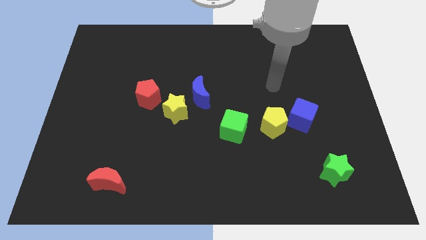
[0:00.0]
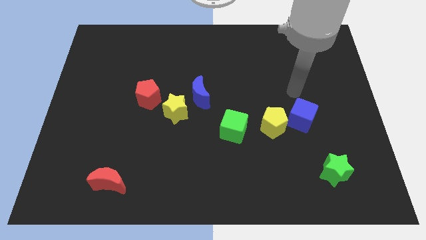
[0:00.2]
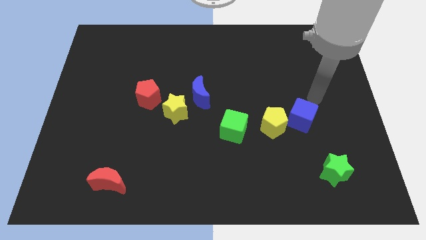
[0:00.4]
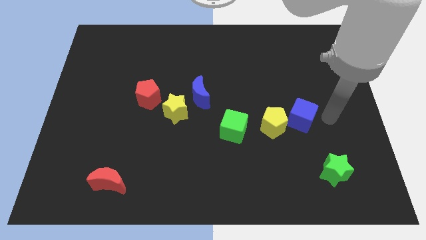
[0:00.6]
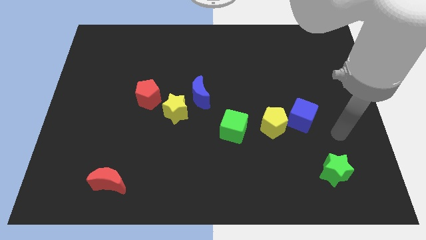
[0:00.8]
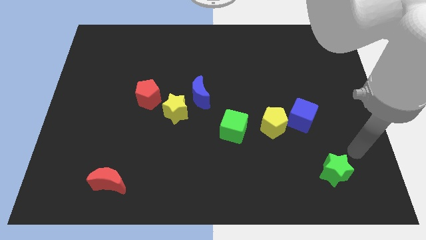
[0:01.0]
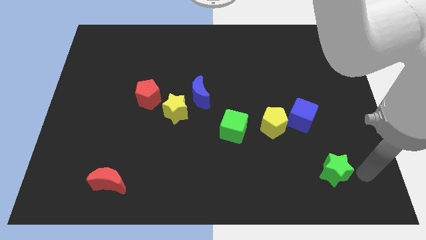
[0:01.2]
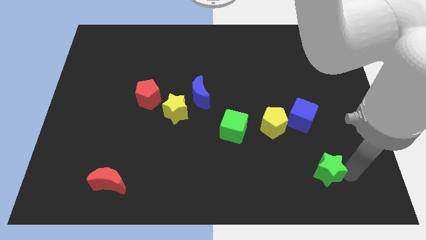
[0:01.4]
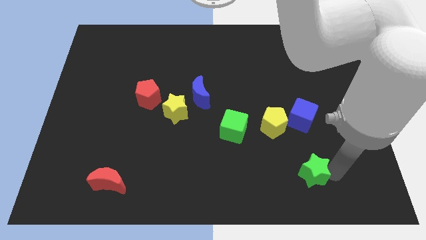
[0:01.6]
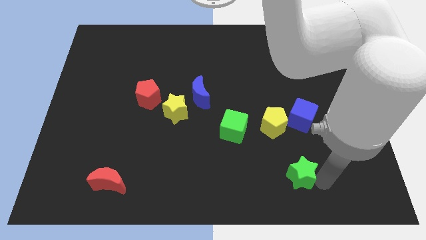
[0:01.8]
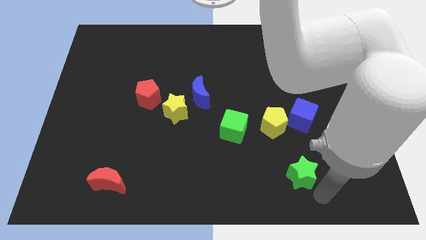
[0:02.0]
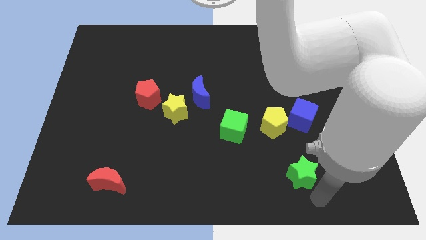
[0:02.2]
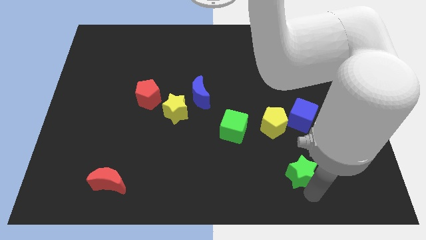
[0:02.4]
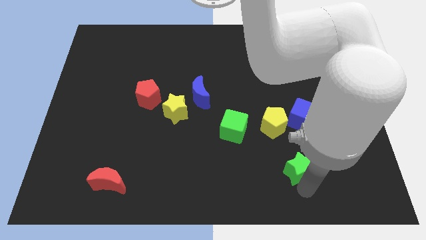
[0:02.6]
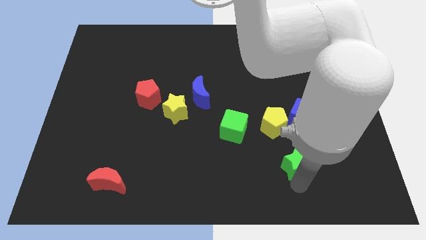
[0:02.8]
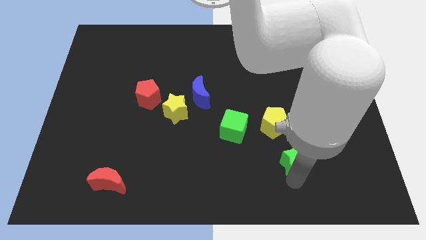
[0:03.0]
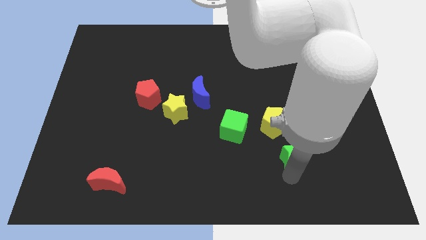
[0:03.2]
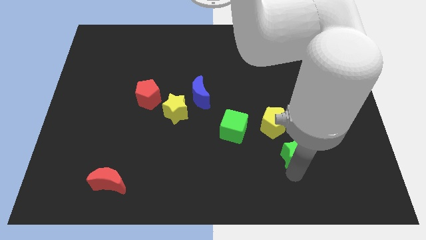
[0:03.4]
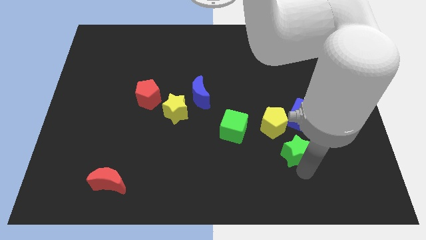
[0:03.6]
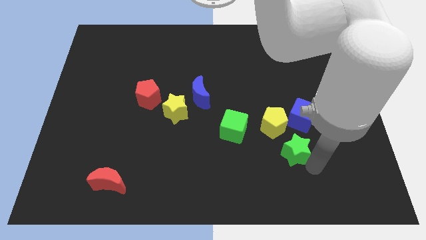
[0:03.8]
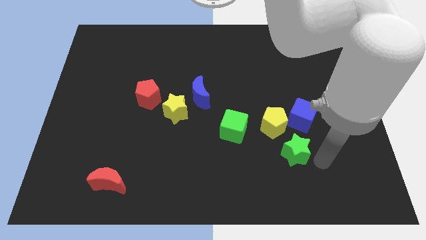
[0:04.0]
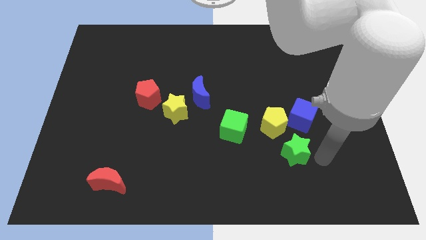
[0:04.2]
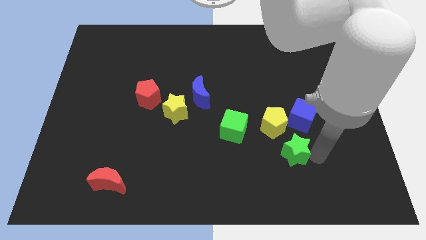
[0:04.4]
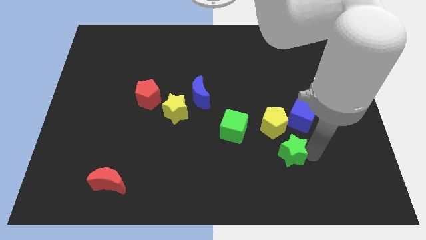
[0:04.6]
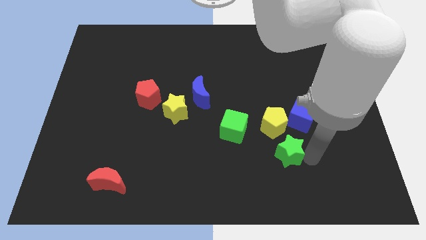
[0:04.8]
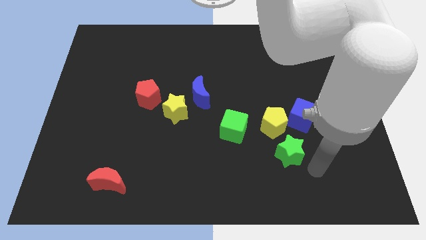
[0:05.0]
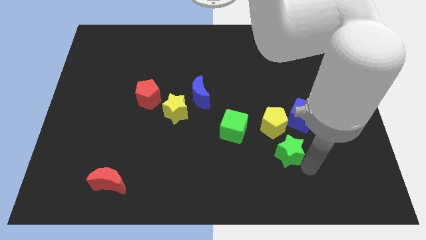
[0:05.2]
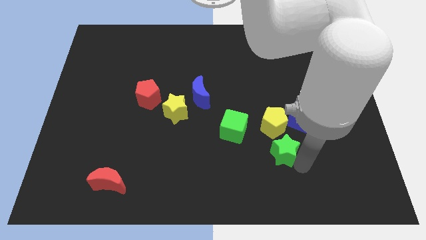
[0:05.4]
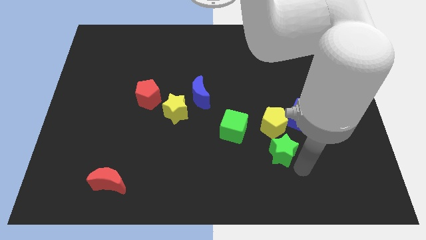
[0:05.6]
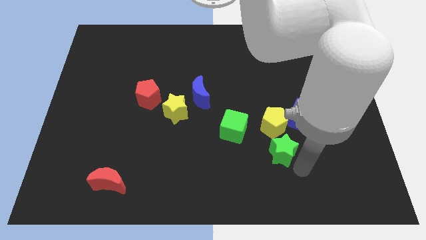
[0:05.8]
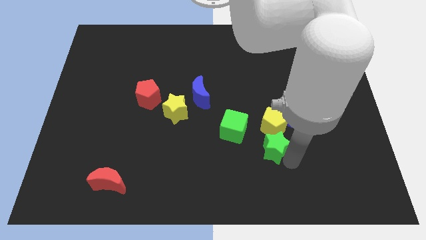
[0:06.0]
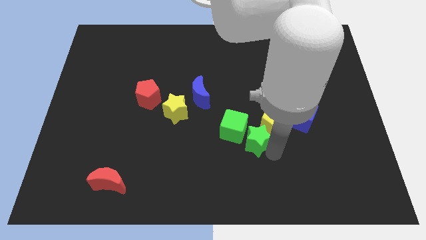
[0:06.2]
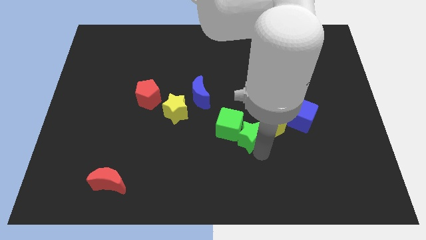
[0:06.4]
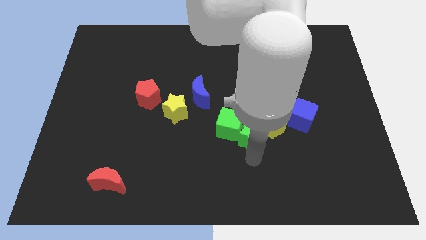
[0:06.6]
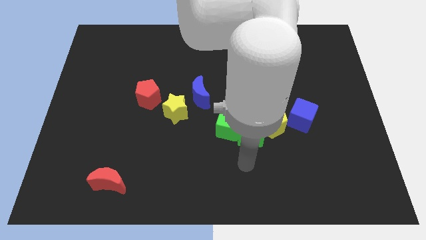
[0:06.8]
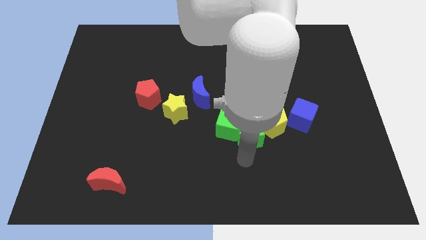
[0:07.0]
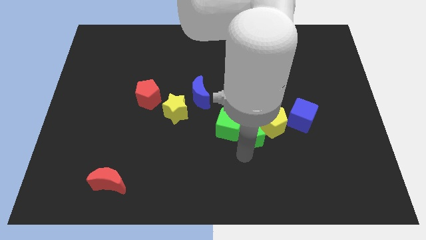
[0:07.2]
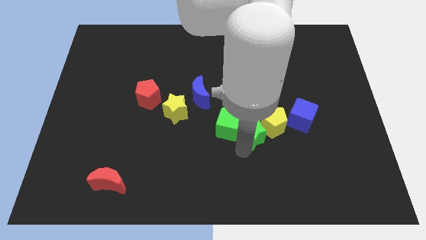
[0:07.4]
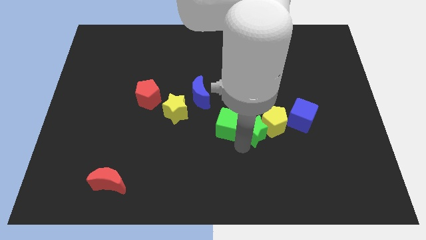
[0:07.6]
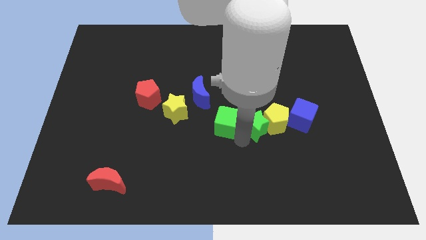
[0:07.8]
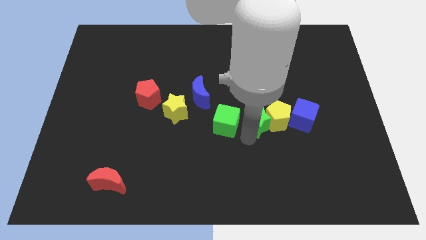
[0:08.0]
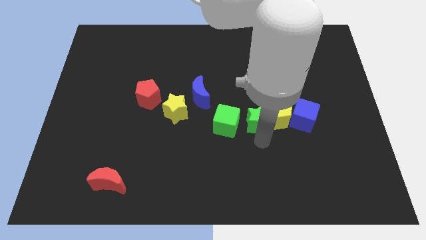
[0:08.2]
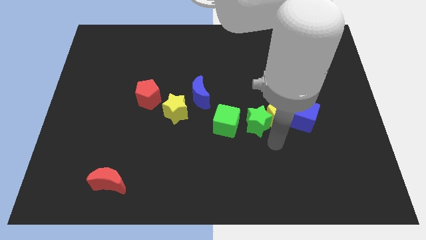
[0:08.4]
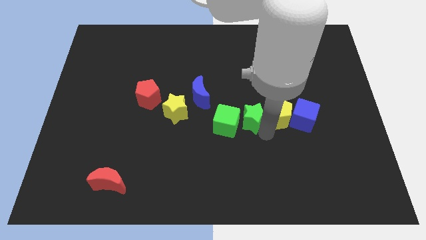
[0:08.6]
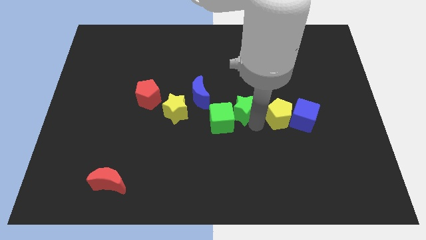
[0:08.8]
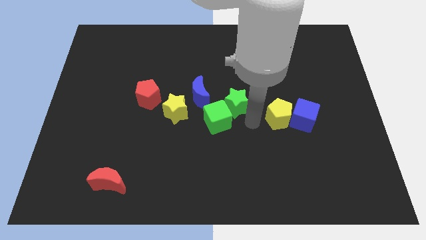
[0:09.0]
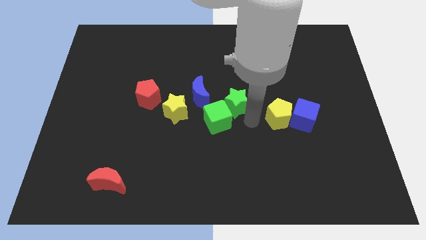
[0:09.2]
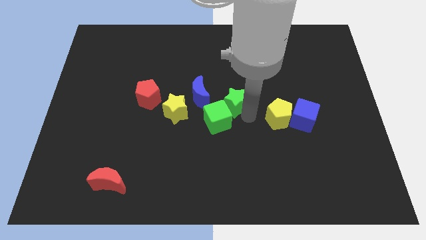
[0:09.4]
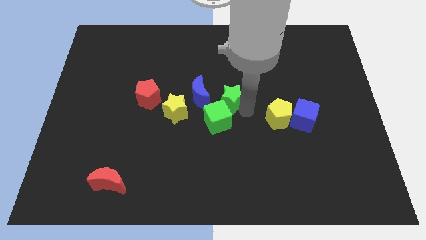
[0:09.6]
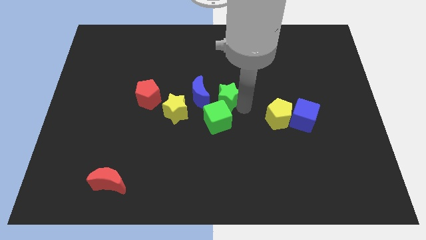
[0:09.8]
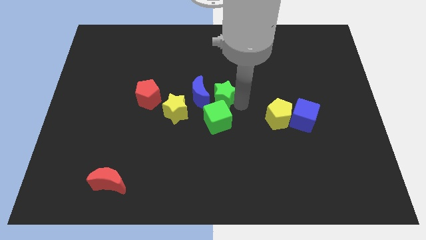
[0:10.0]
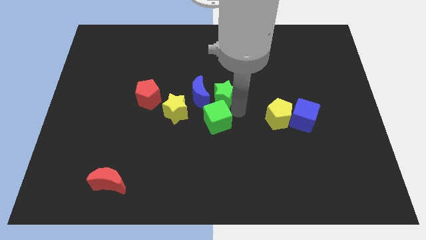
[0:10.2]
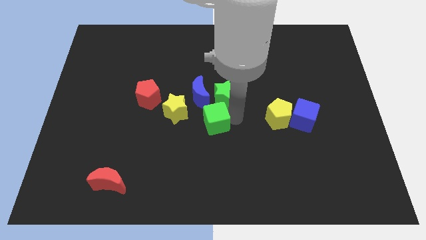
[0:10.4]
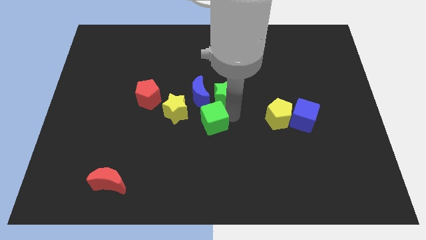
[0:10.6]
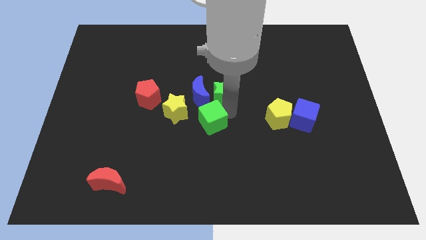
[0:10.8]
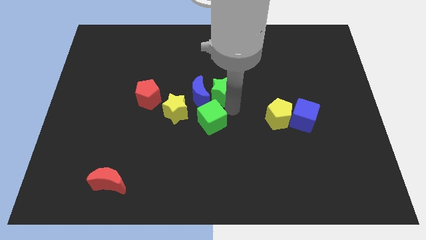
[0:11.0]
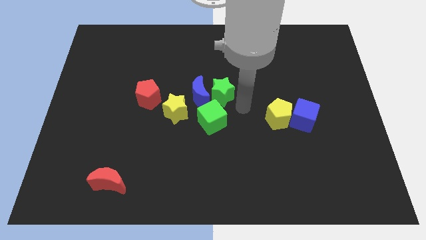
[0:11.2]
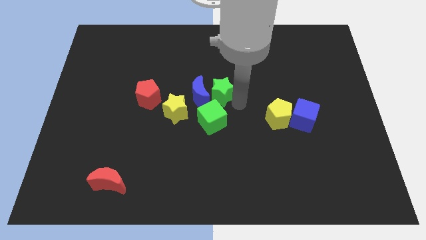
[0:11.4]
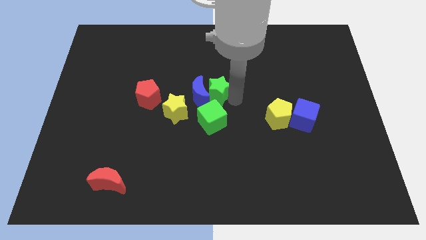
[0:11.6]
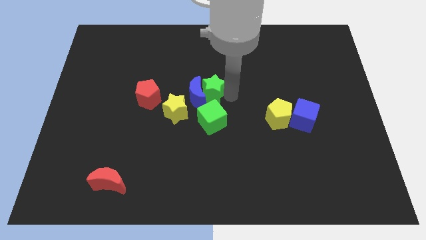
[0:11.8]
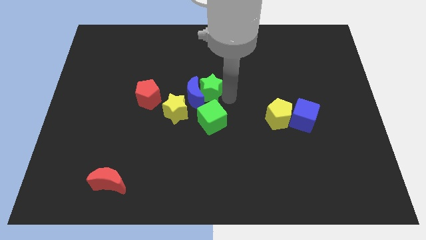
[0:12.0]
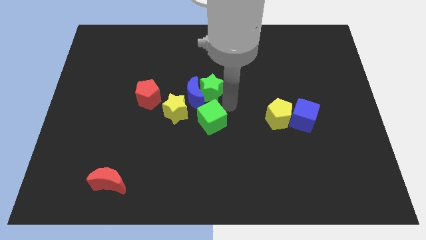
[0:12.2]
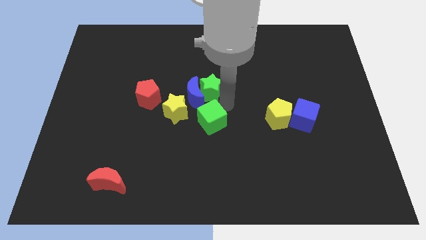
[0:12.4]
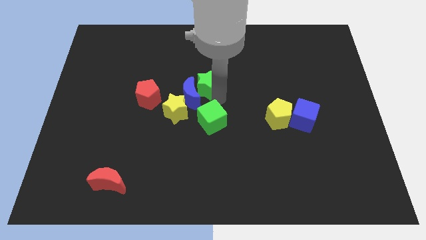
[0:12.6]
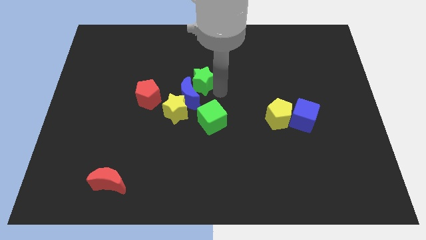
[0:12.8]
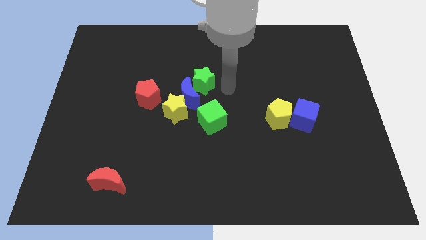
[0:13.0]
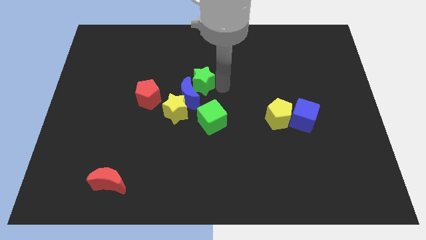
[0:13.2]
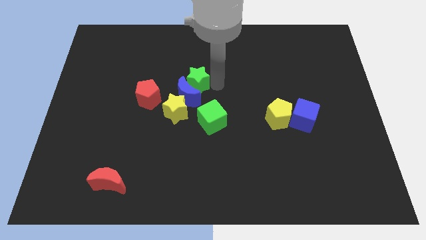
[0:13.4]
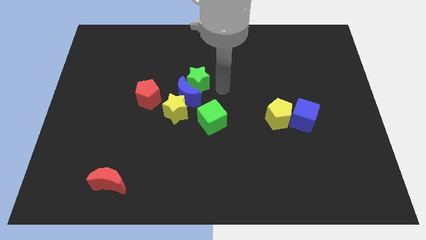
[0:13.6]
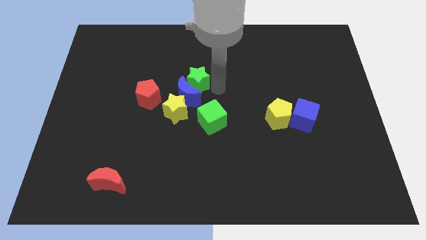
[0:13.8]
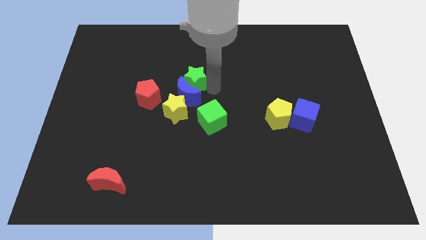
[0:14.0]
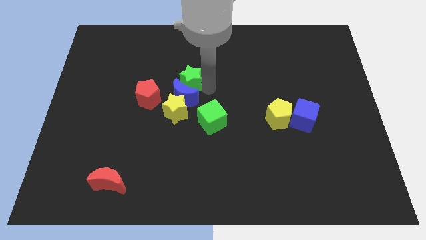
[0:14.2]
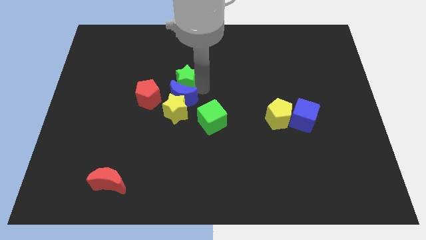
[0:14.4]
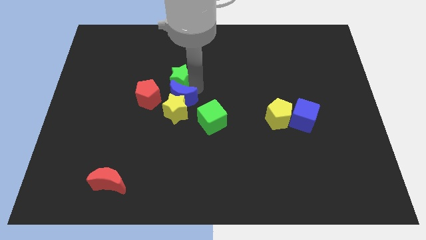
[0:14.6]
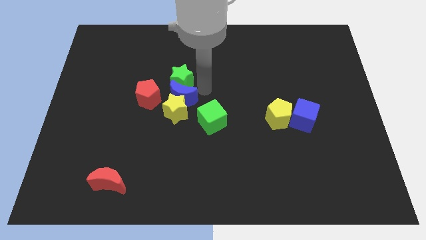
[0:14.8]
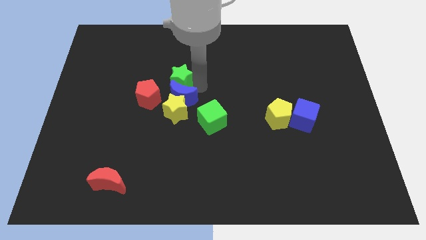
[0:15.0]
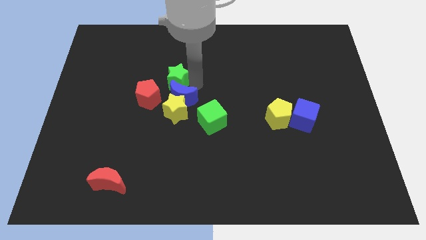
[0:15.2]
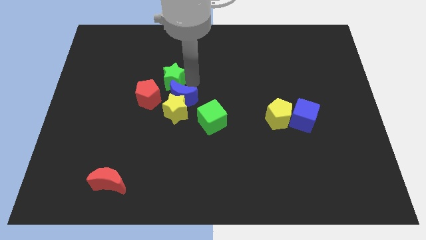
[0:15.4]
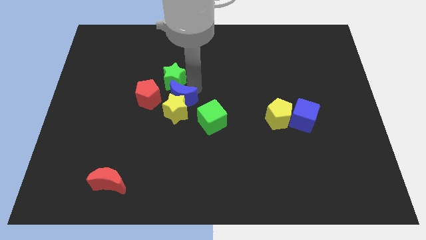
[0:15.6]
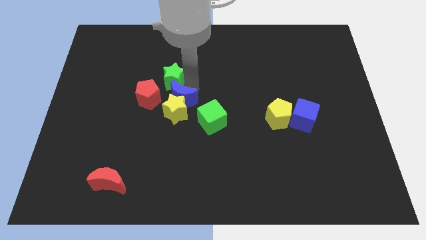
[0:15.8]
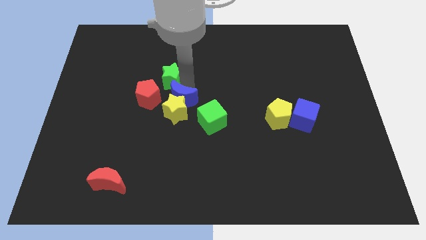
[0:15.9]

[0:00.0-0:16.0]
slide the green star to the top side of the red pentagon
